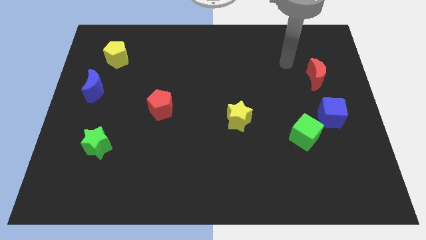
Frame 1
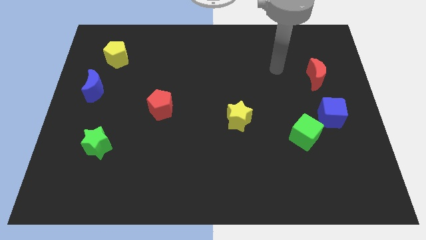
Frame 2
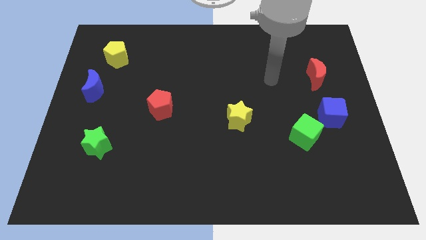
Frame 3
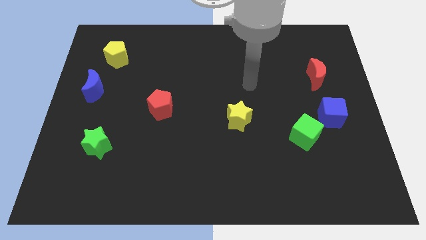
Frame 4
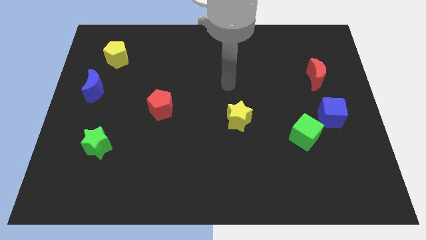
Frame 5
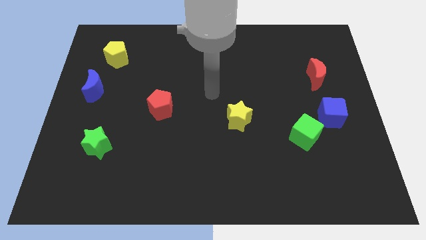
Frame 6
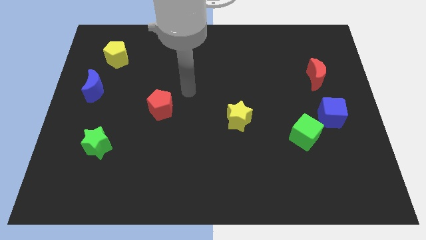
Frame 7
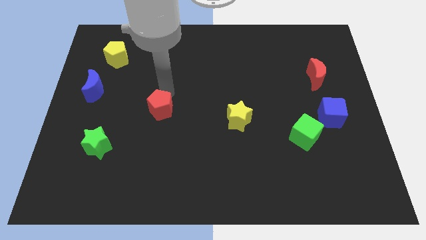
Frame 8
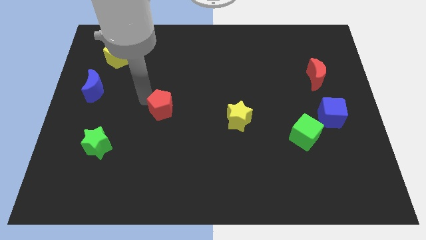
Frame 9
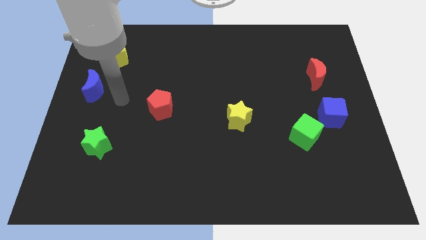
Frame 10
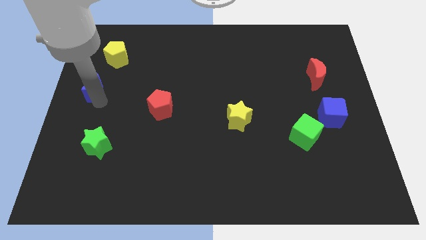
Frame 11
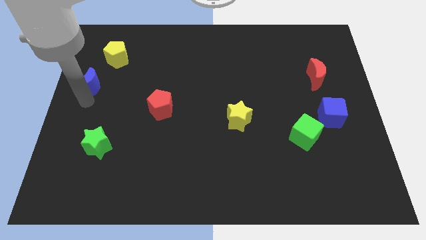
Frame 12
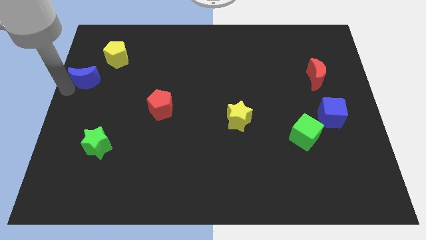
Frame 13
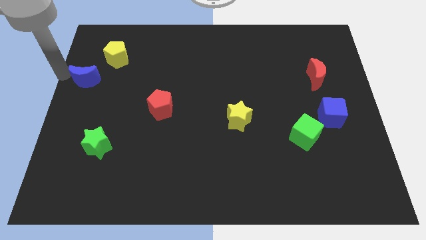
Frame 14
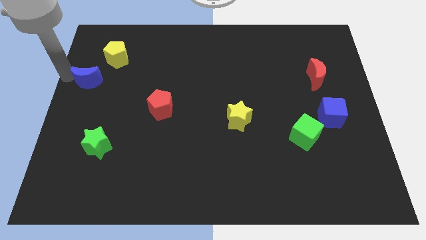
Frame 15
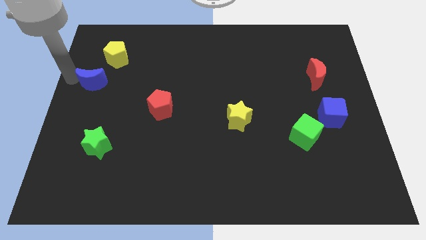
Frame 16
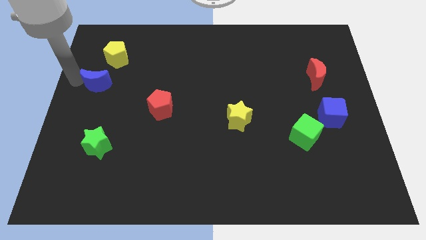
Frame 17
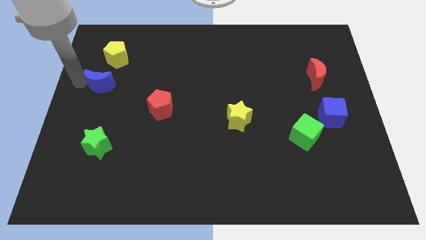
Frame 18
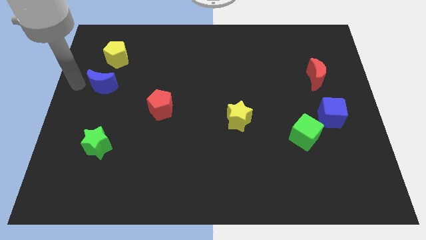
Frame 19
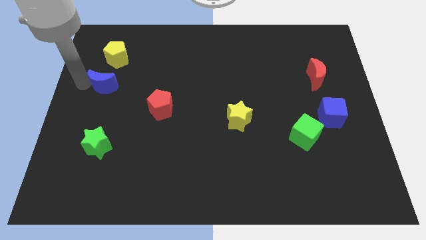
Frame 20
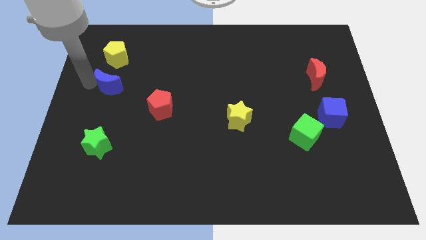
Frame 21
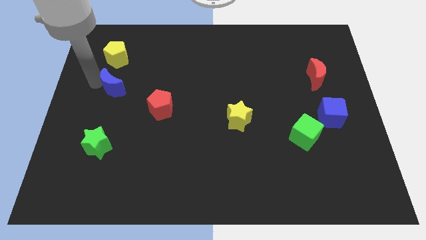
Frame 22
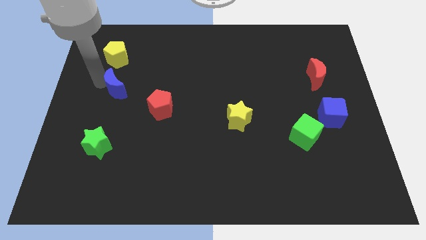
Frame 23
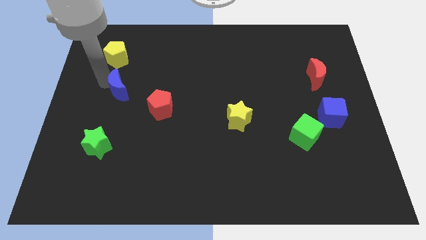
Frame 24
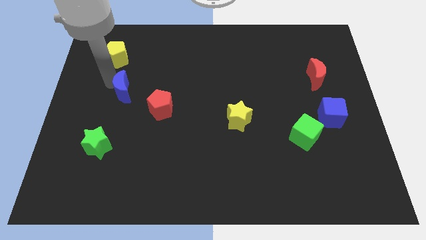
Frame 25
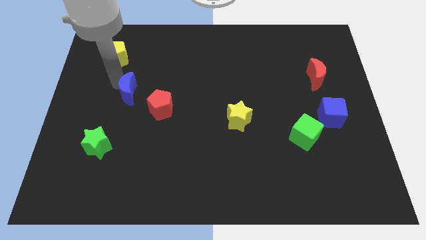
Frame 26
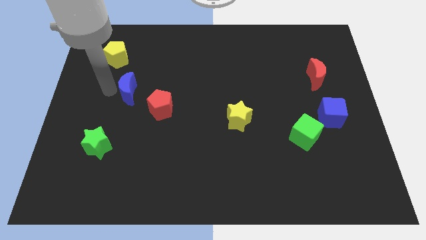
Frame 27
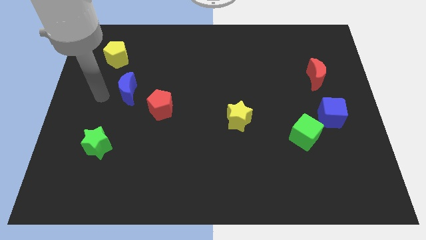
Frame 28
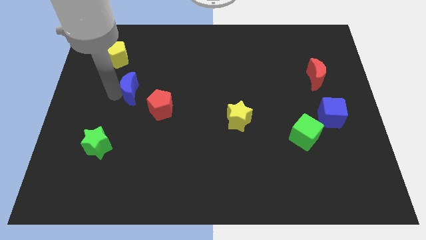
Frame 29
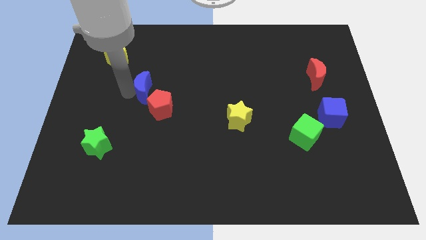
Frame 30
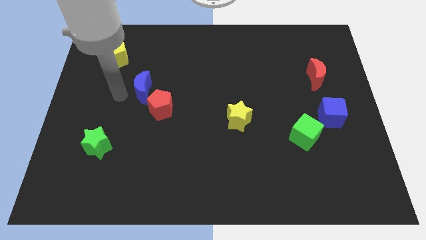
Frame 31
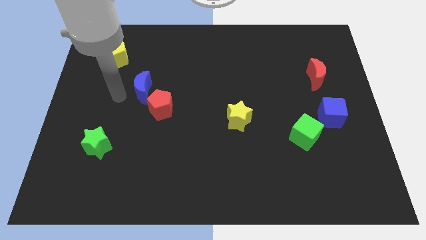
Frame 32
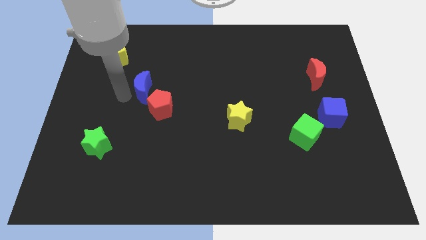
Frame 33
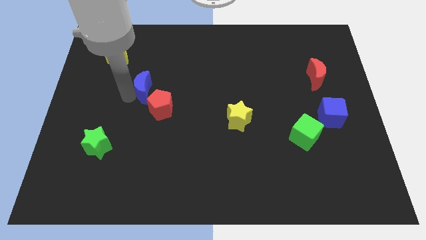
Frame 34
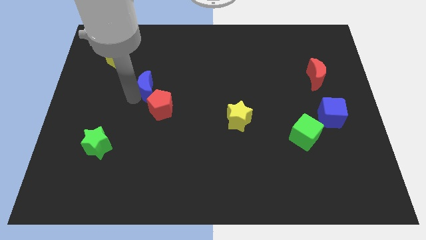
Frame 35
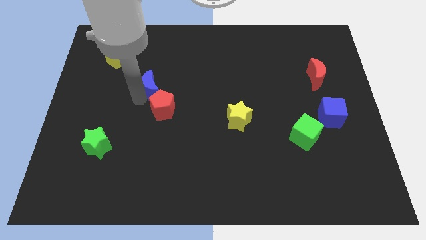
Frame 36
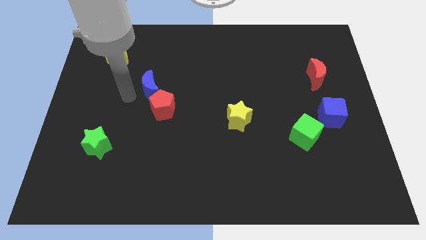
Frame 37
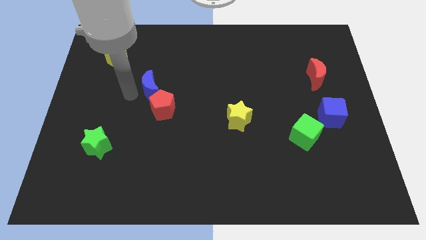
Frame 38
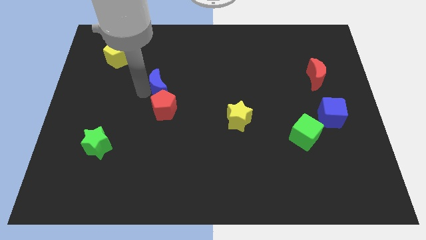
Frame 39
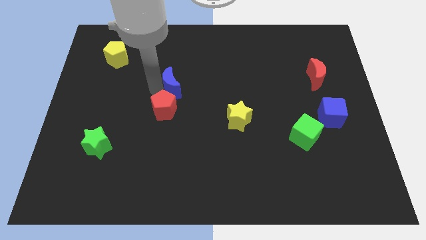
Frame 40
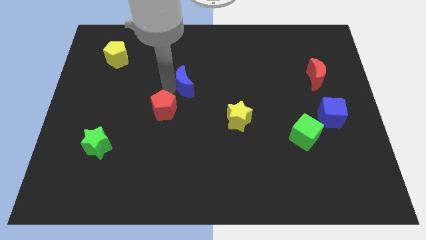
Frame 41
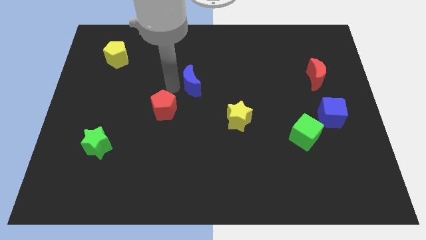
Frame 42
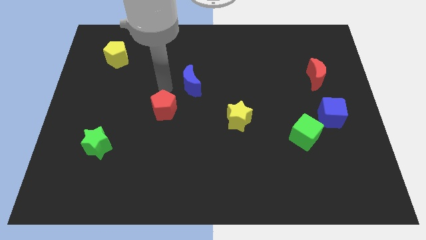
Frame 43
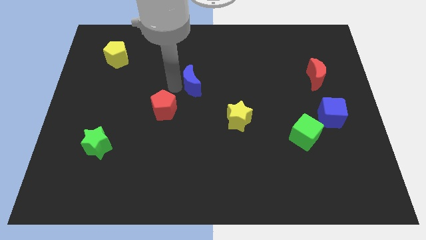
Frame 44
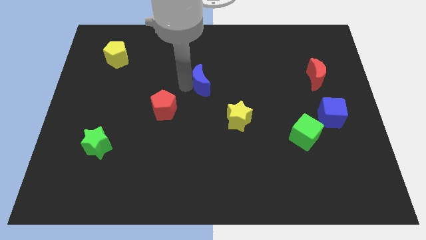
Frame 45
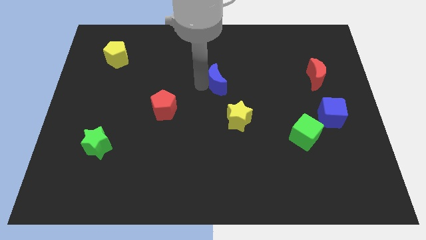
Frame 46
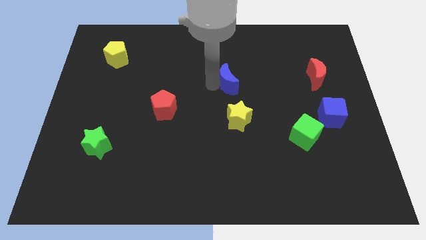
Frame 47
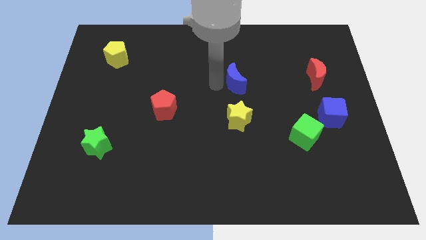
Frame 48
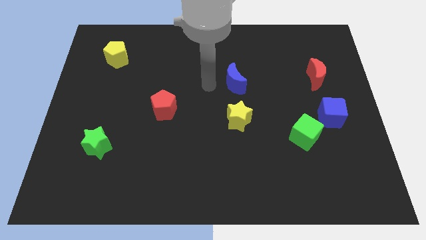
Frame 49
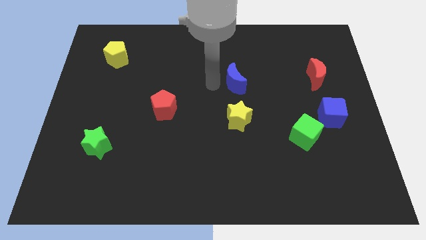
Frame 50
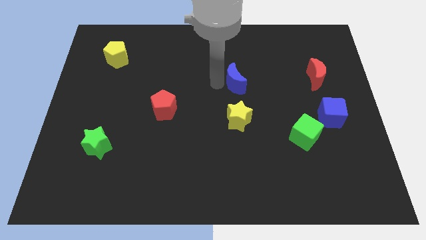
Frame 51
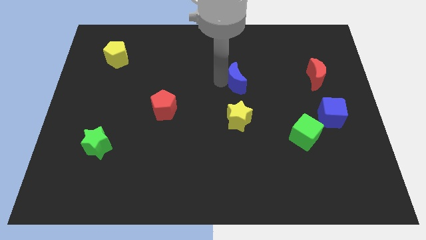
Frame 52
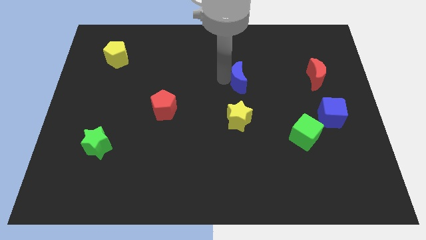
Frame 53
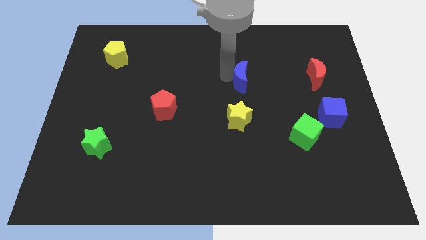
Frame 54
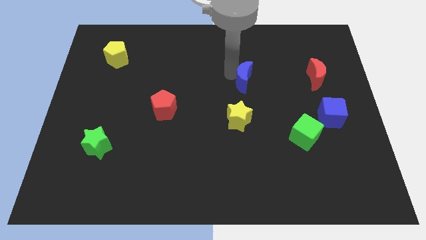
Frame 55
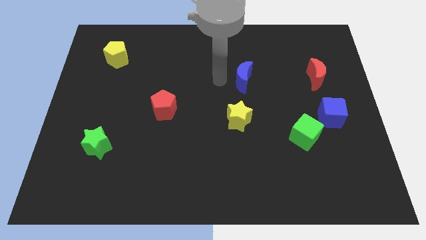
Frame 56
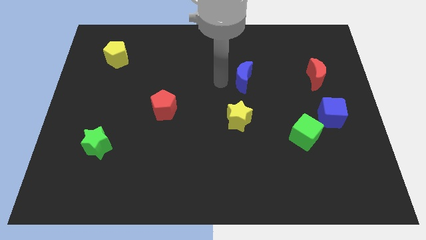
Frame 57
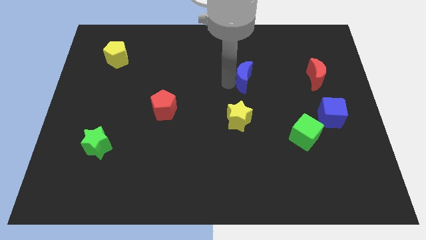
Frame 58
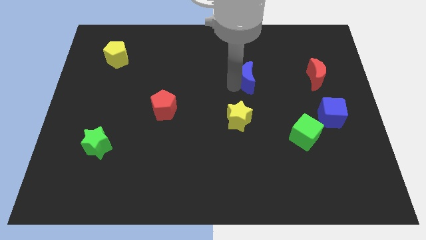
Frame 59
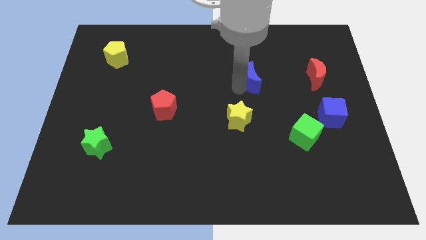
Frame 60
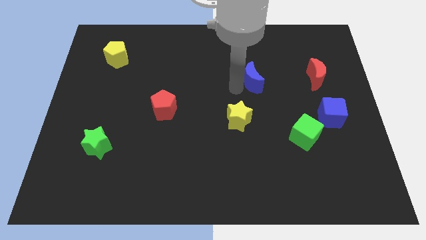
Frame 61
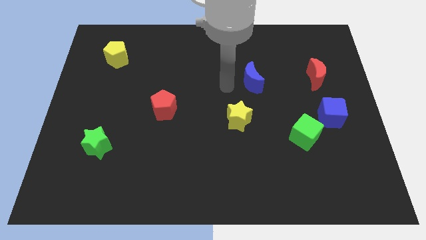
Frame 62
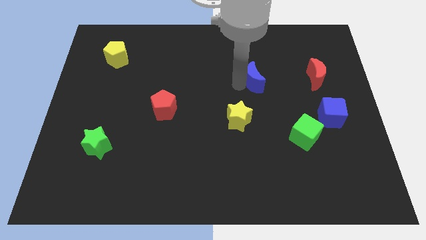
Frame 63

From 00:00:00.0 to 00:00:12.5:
slide the blue moon to the left of the red moon

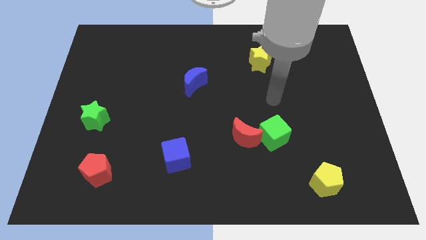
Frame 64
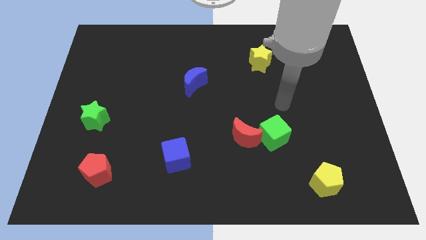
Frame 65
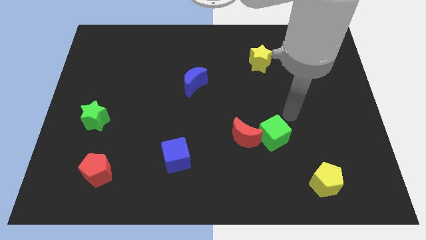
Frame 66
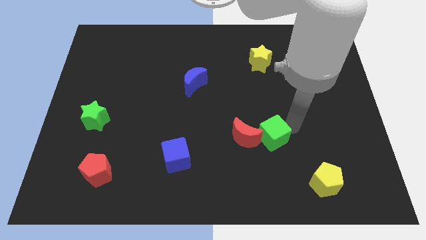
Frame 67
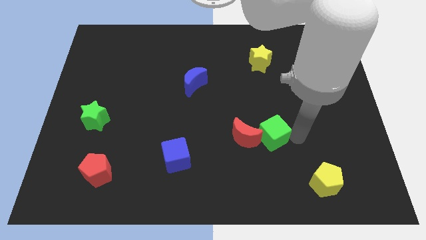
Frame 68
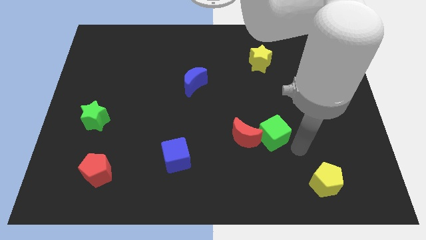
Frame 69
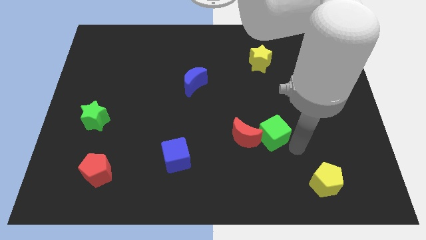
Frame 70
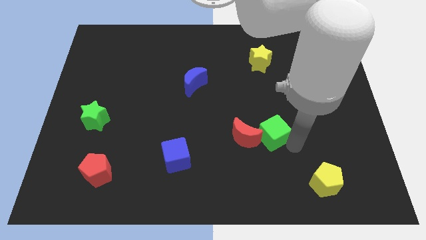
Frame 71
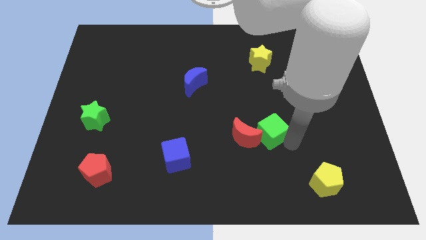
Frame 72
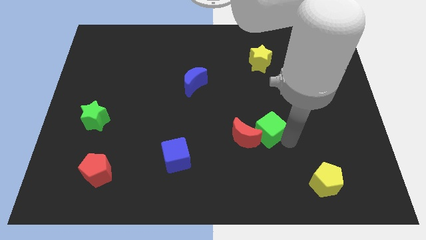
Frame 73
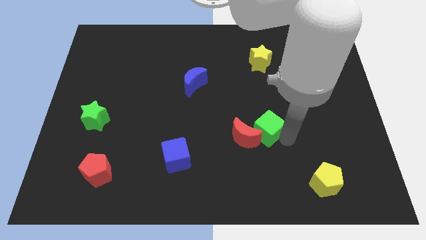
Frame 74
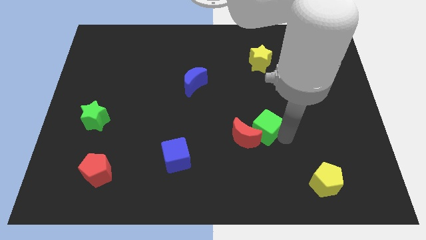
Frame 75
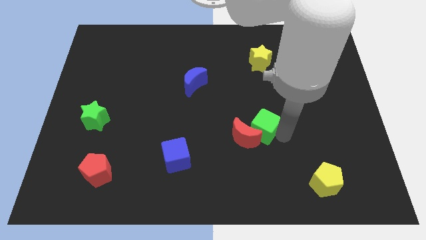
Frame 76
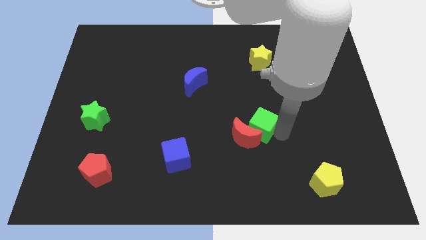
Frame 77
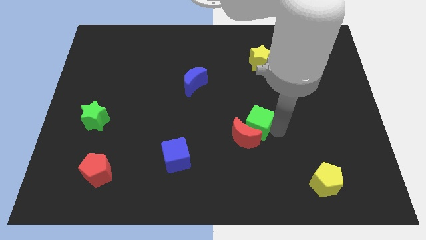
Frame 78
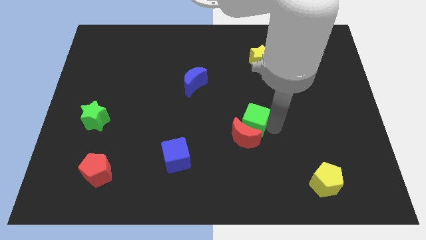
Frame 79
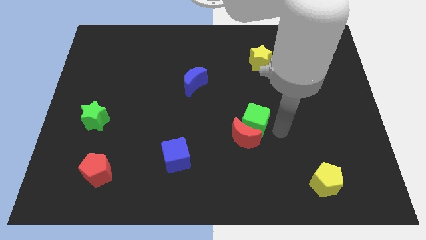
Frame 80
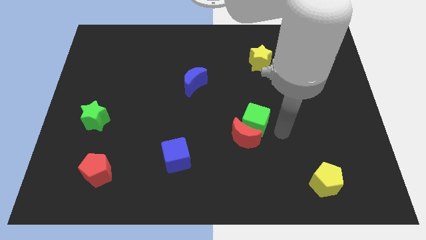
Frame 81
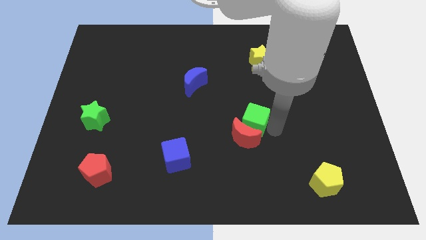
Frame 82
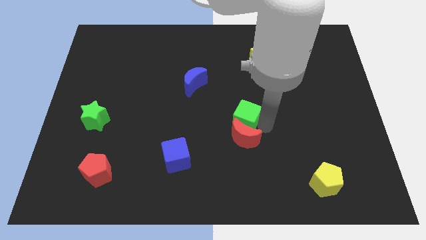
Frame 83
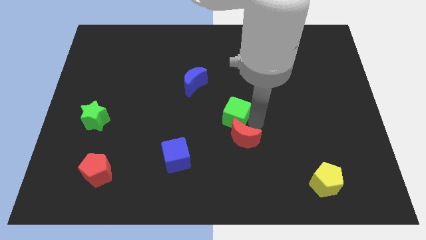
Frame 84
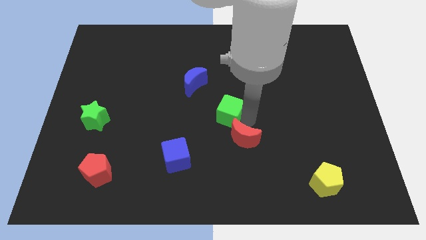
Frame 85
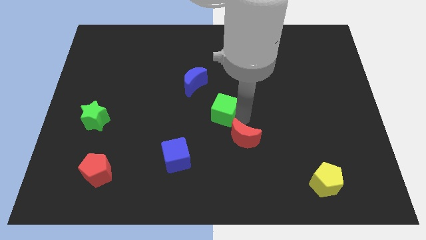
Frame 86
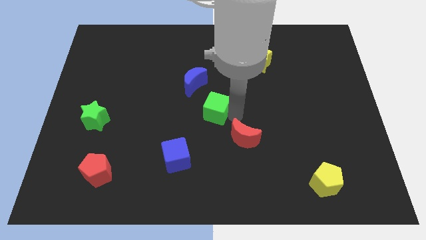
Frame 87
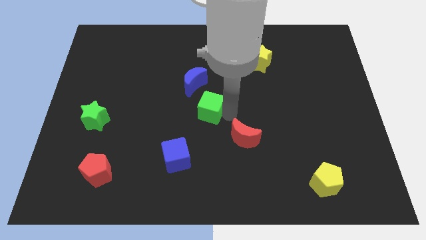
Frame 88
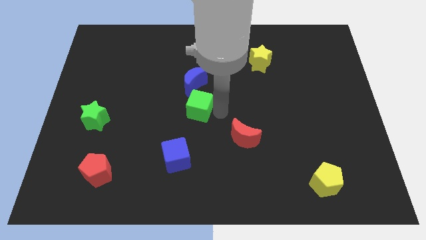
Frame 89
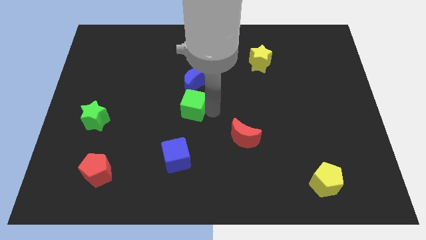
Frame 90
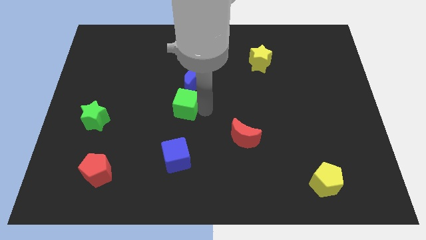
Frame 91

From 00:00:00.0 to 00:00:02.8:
slide the green cube diagonally down and to the left of the blue moon
